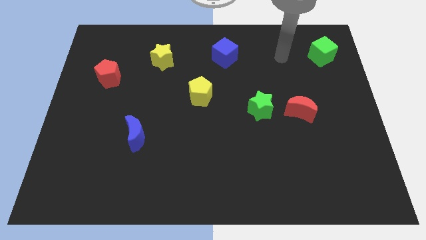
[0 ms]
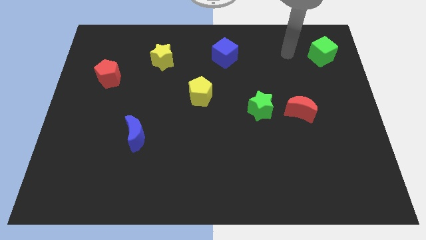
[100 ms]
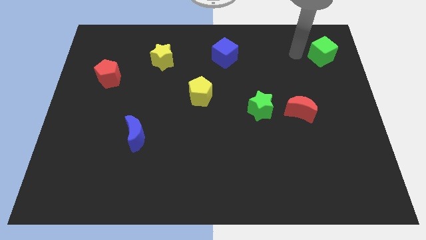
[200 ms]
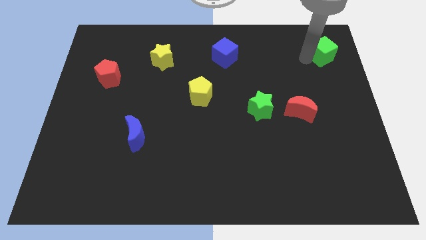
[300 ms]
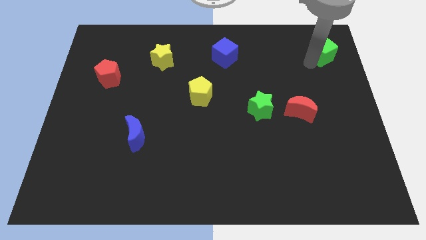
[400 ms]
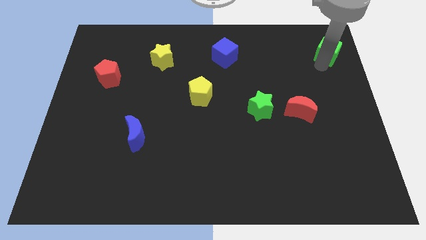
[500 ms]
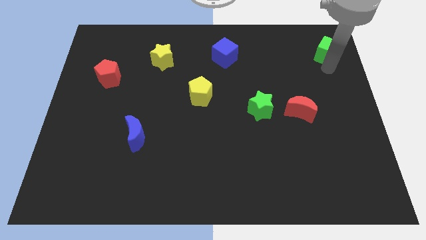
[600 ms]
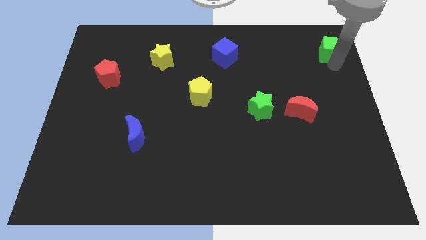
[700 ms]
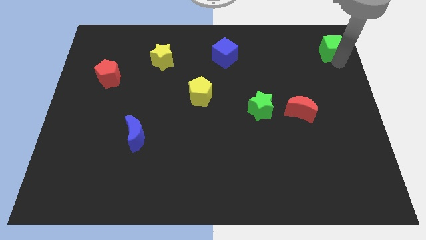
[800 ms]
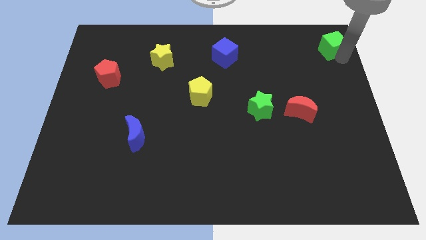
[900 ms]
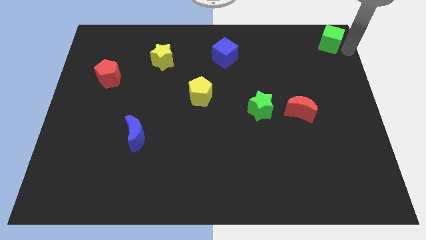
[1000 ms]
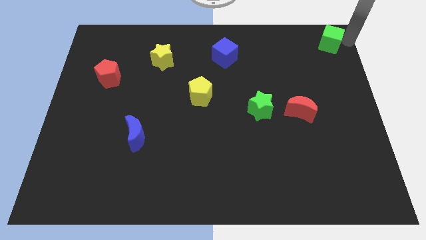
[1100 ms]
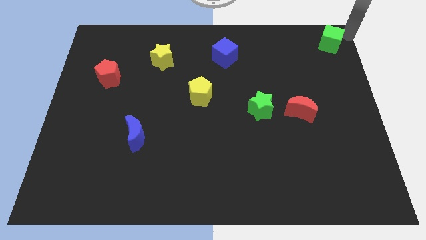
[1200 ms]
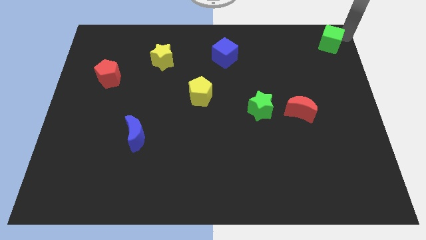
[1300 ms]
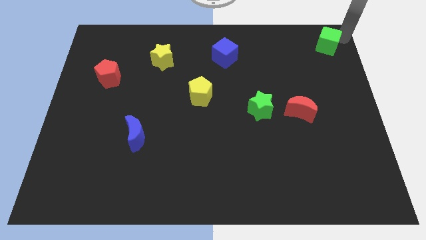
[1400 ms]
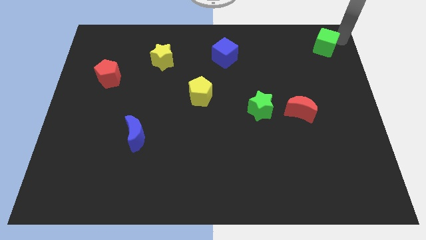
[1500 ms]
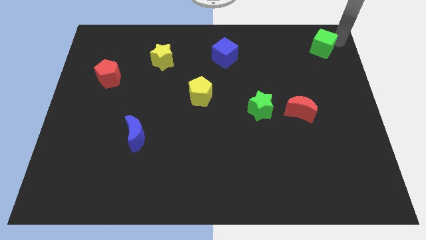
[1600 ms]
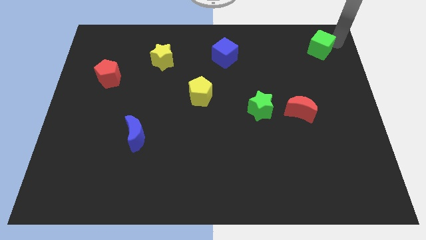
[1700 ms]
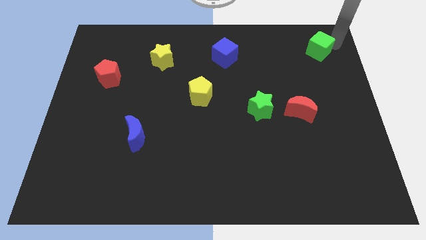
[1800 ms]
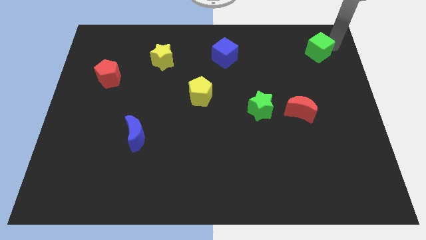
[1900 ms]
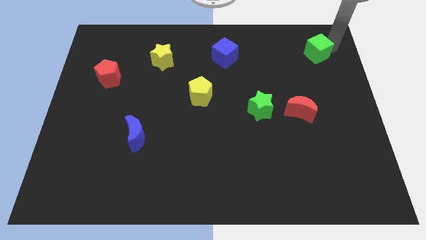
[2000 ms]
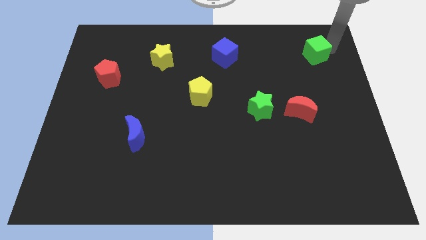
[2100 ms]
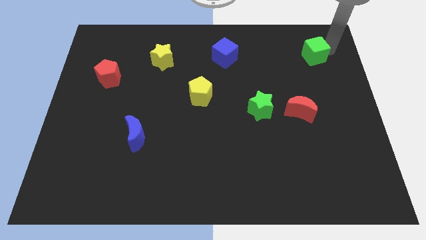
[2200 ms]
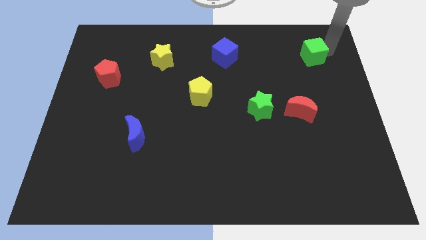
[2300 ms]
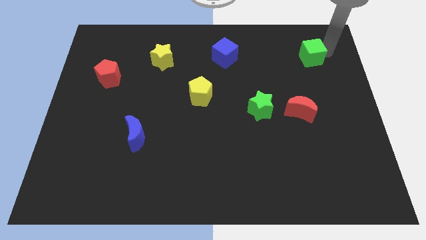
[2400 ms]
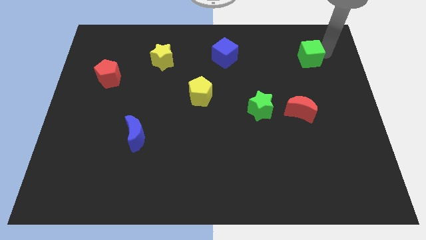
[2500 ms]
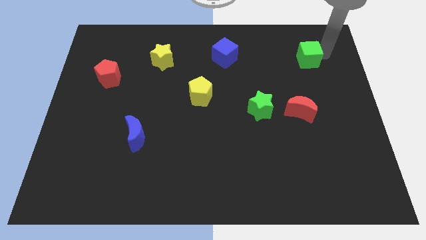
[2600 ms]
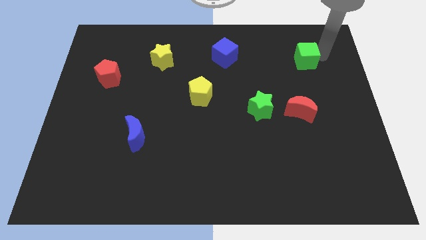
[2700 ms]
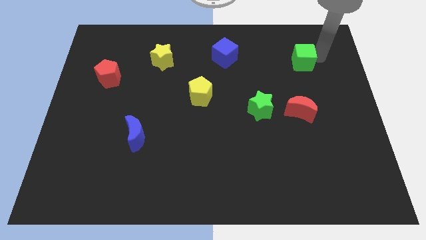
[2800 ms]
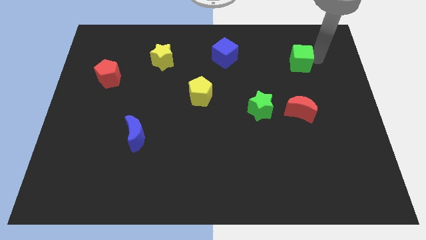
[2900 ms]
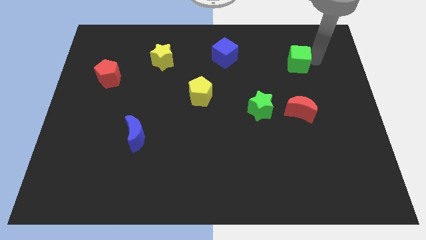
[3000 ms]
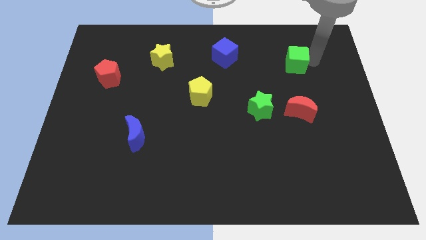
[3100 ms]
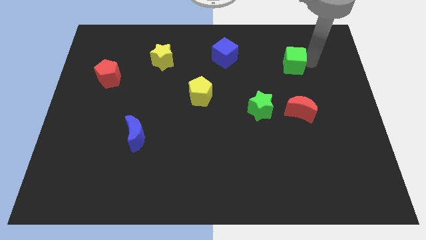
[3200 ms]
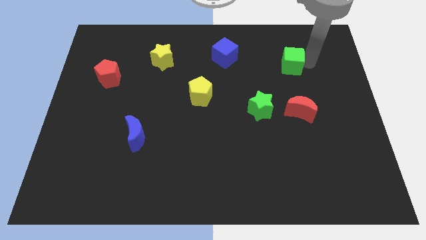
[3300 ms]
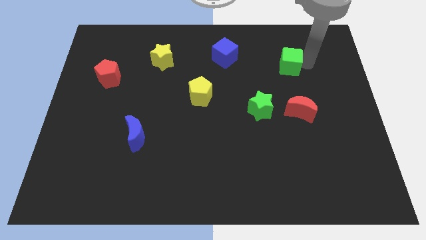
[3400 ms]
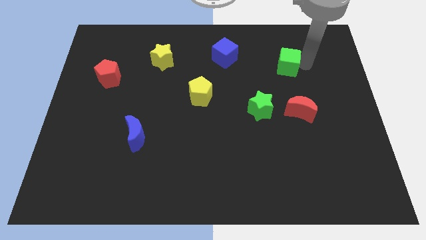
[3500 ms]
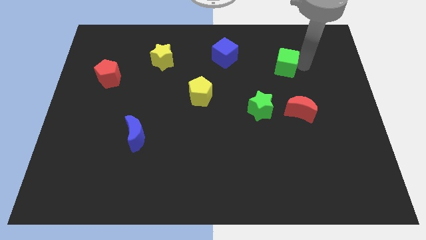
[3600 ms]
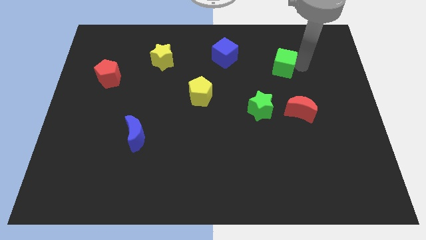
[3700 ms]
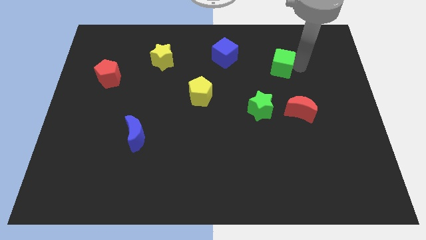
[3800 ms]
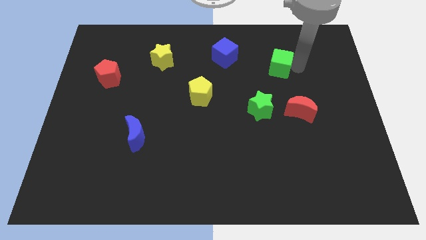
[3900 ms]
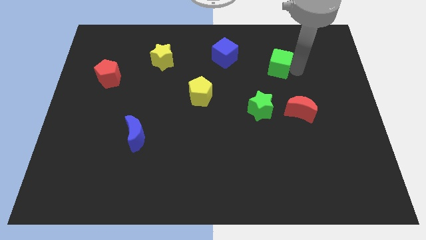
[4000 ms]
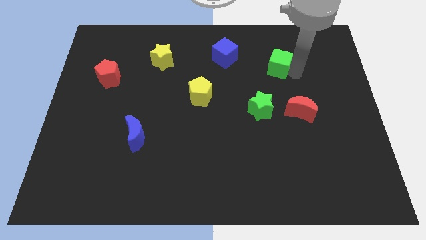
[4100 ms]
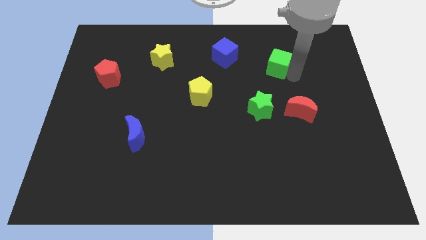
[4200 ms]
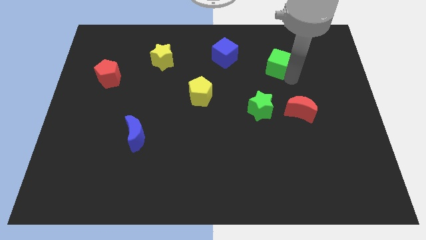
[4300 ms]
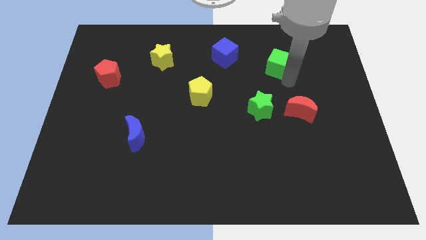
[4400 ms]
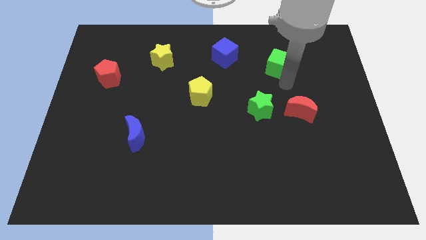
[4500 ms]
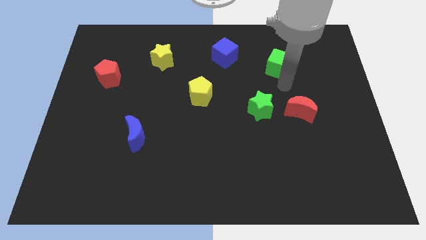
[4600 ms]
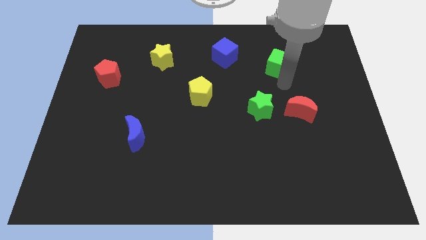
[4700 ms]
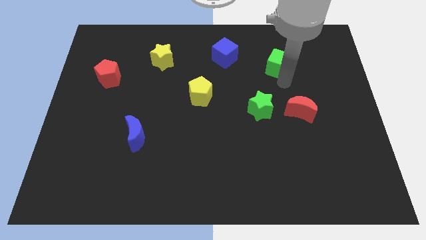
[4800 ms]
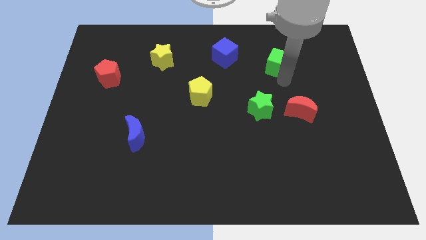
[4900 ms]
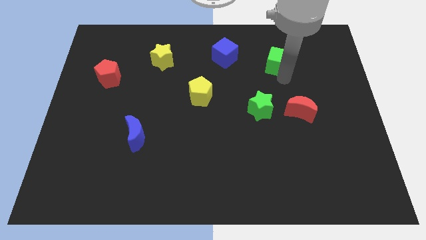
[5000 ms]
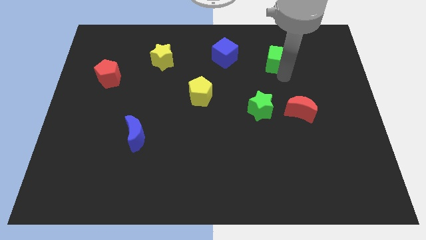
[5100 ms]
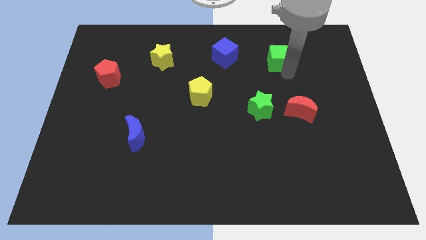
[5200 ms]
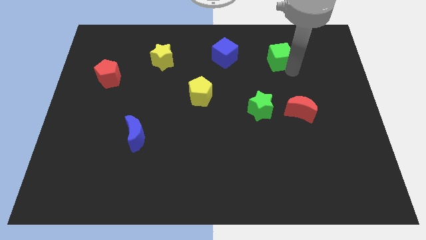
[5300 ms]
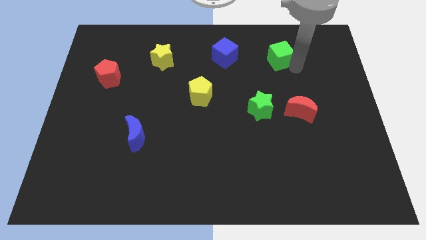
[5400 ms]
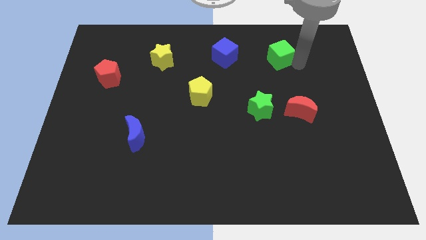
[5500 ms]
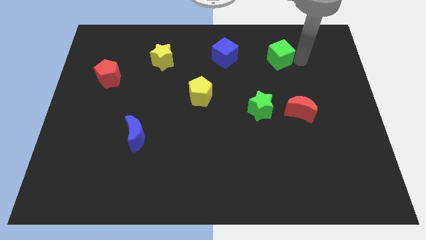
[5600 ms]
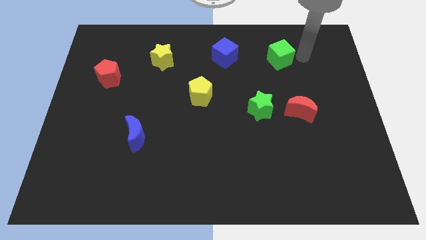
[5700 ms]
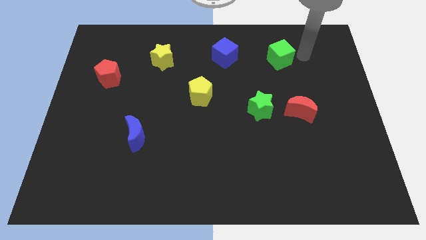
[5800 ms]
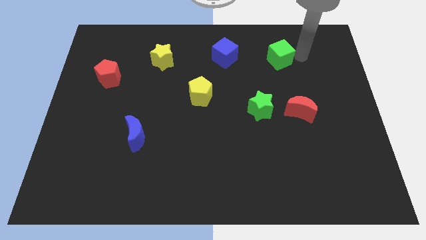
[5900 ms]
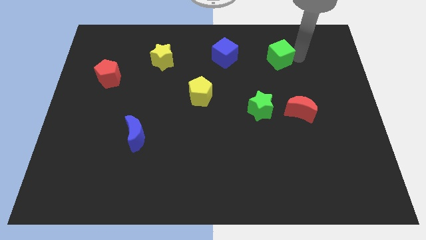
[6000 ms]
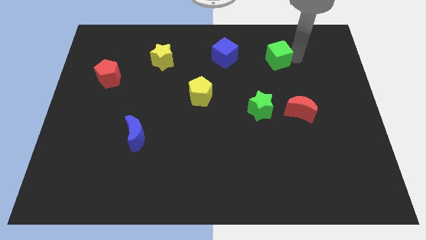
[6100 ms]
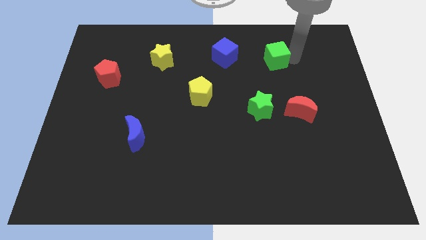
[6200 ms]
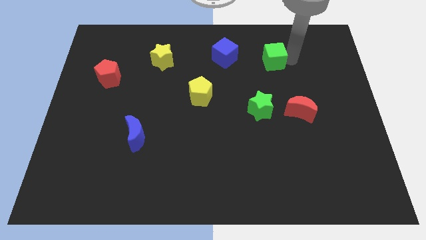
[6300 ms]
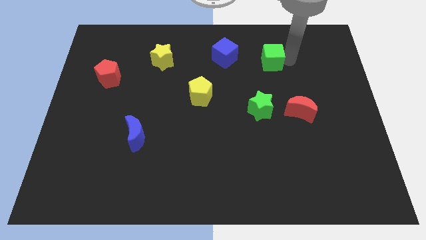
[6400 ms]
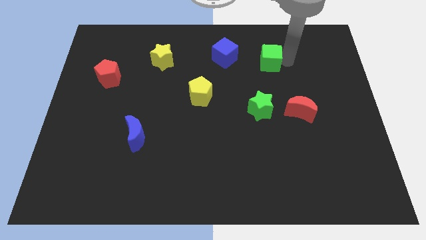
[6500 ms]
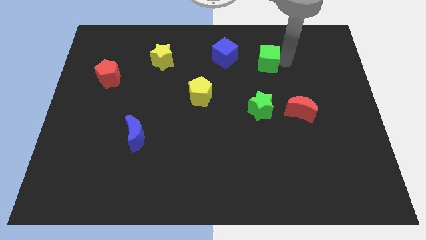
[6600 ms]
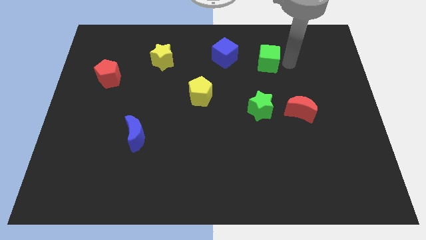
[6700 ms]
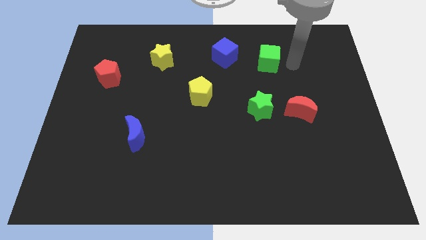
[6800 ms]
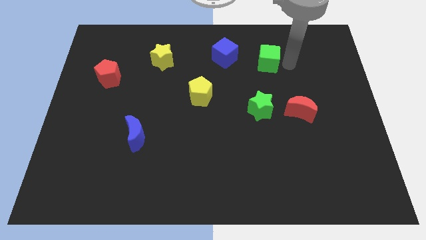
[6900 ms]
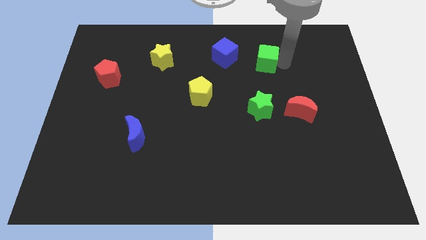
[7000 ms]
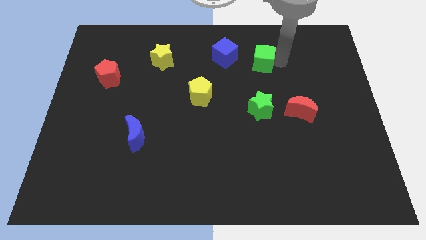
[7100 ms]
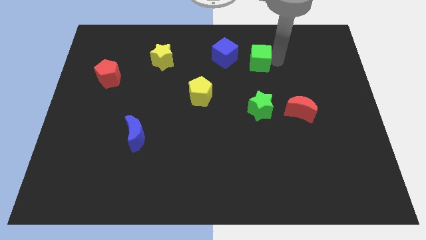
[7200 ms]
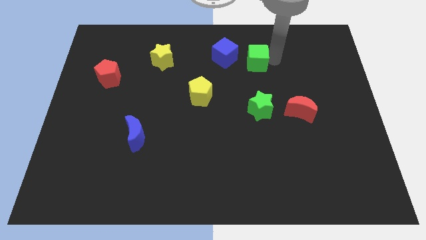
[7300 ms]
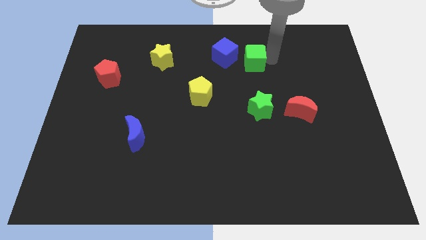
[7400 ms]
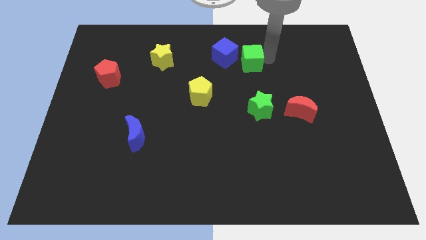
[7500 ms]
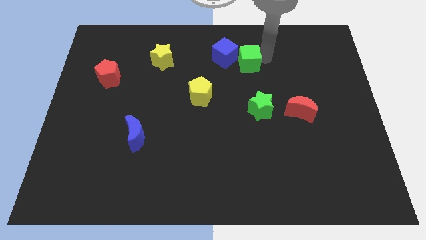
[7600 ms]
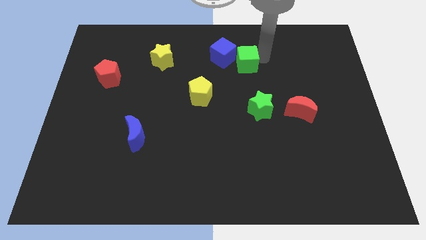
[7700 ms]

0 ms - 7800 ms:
move the green cube left

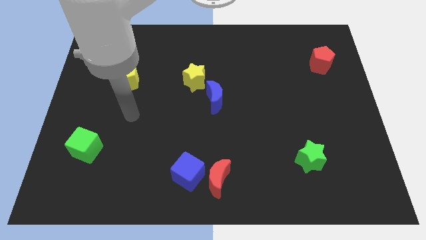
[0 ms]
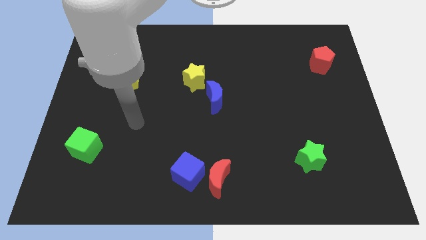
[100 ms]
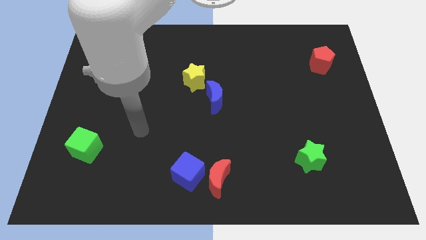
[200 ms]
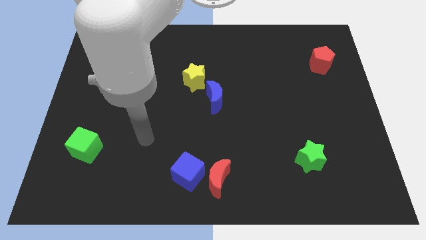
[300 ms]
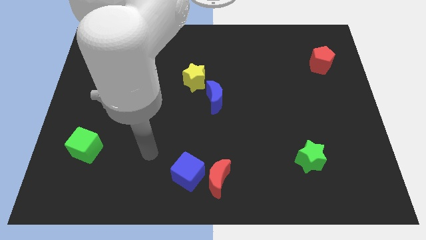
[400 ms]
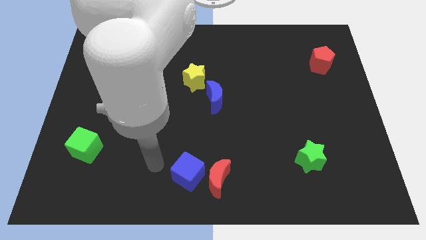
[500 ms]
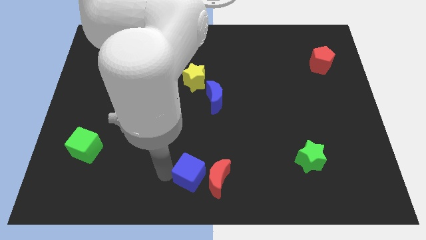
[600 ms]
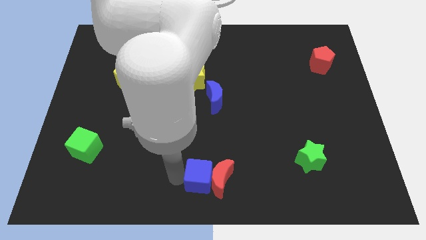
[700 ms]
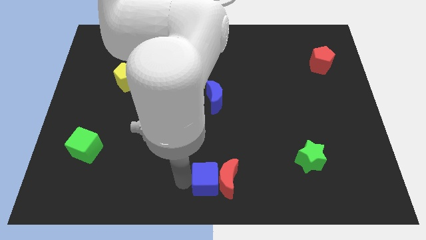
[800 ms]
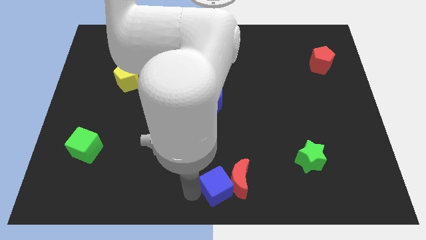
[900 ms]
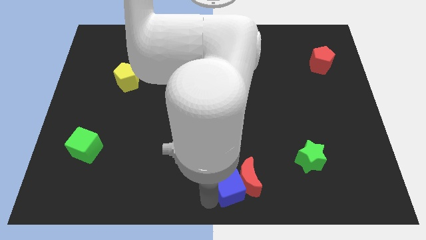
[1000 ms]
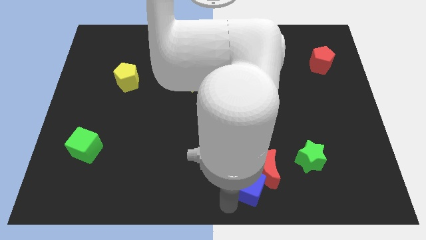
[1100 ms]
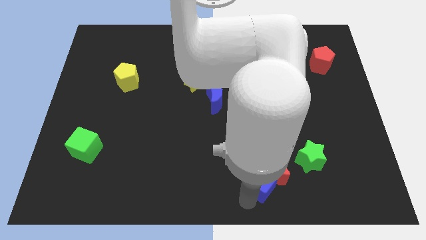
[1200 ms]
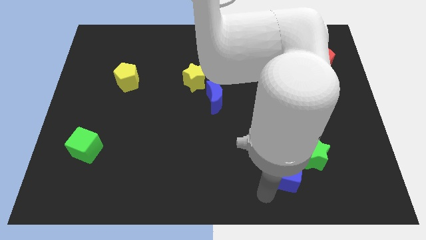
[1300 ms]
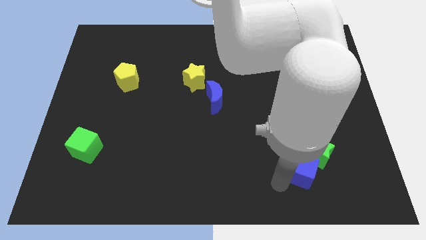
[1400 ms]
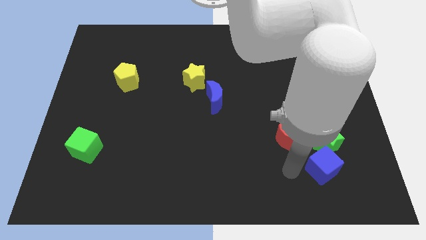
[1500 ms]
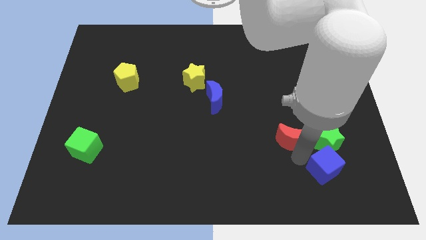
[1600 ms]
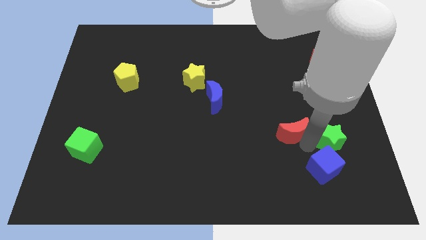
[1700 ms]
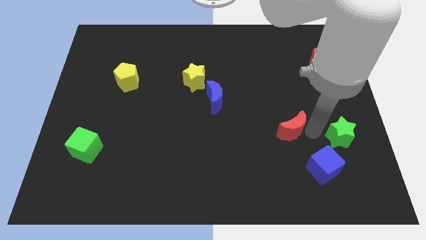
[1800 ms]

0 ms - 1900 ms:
move the red moon up and then to the right
